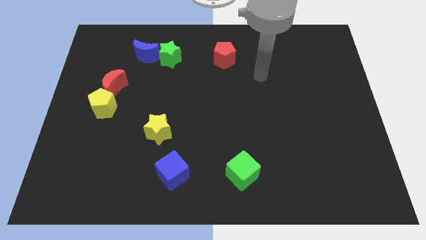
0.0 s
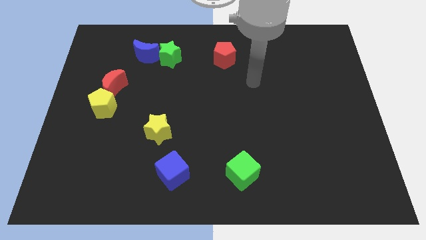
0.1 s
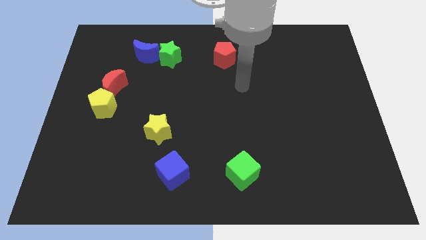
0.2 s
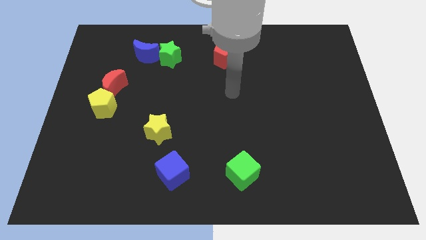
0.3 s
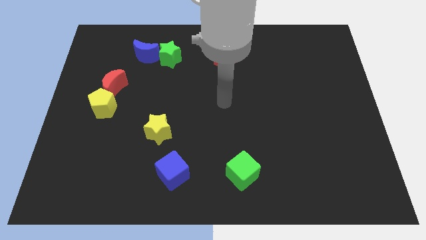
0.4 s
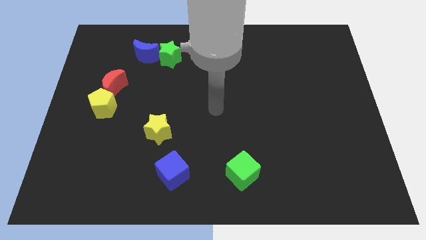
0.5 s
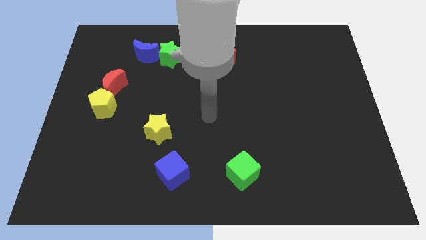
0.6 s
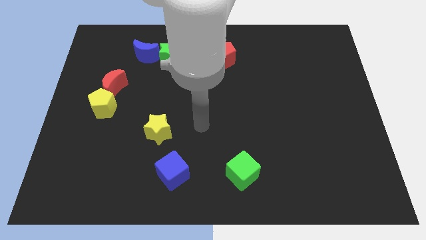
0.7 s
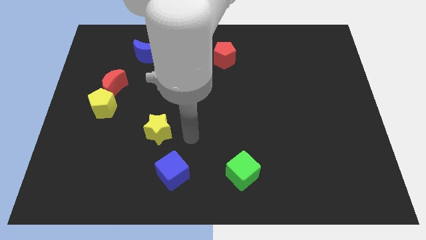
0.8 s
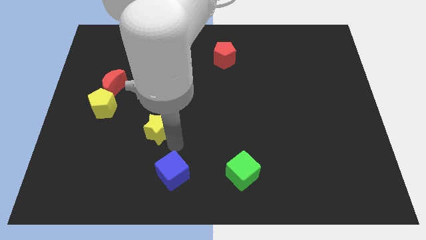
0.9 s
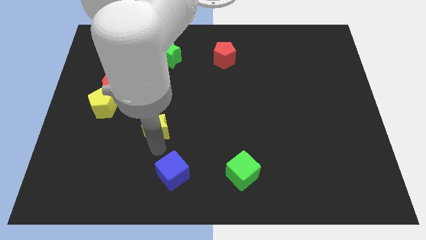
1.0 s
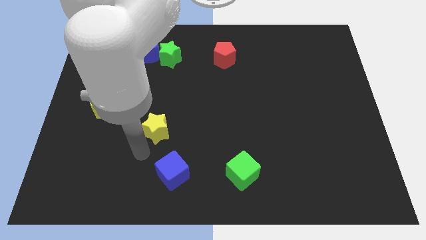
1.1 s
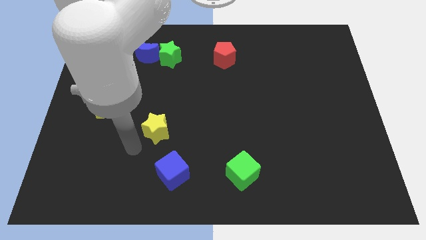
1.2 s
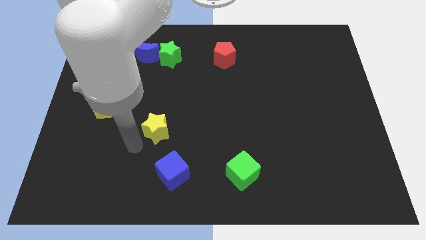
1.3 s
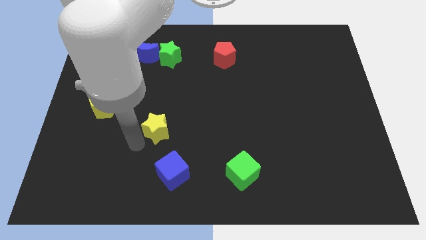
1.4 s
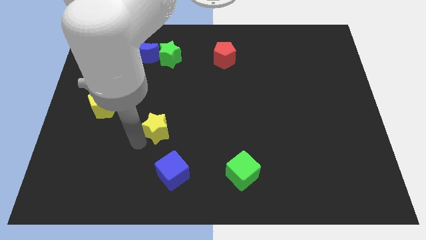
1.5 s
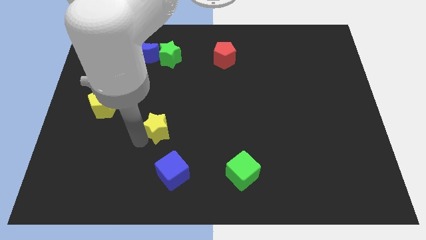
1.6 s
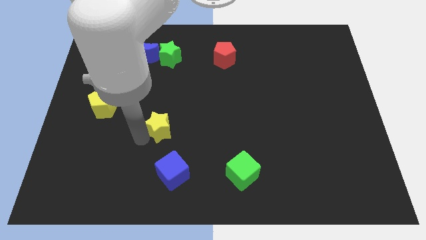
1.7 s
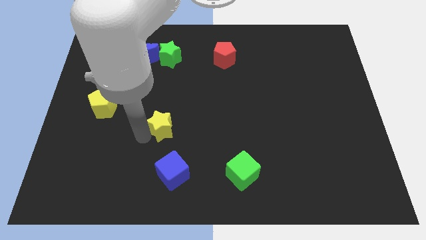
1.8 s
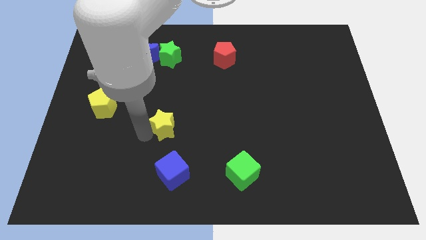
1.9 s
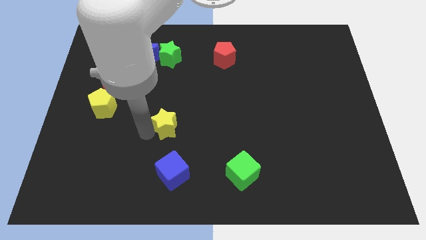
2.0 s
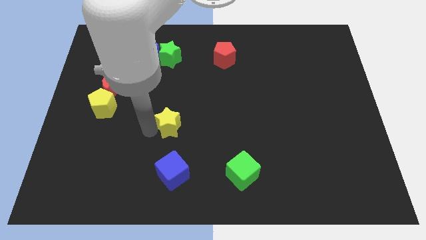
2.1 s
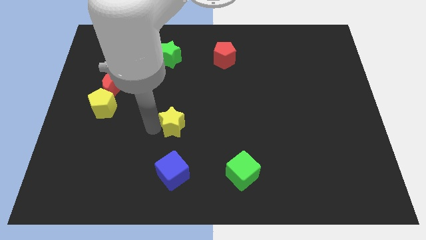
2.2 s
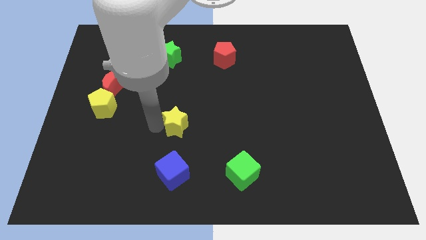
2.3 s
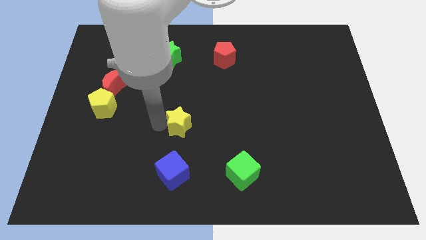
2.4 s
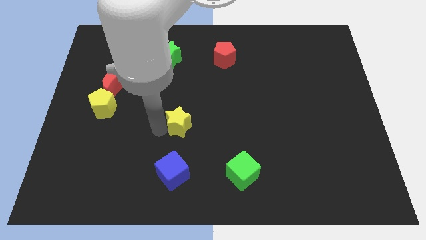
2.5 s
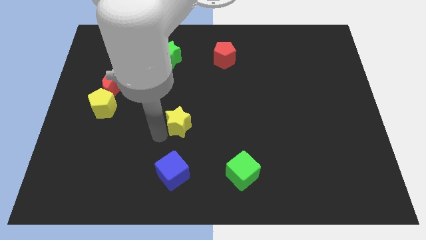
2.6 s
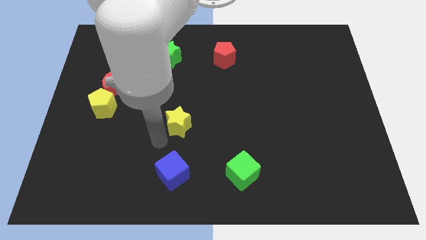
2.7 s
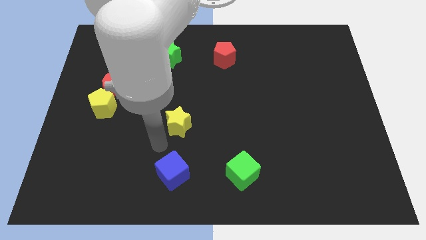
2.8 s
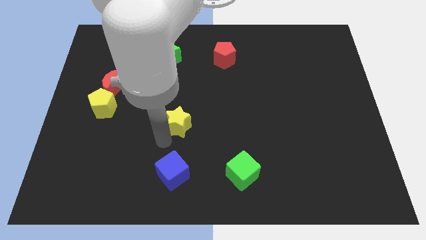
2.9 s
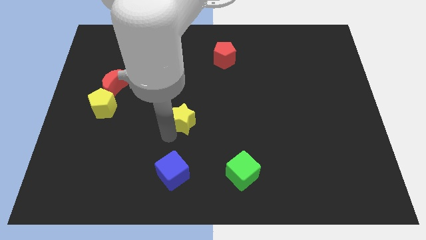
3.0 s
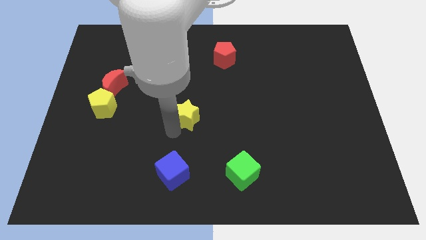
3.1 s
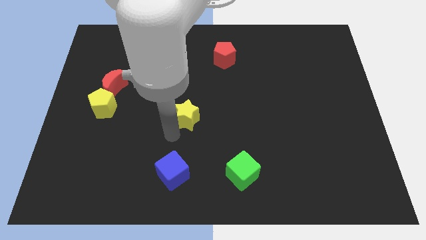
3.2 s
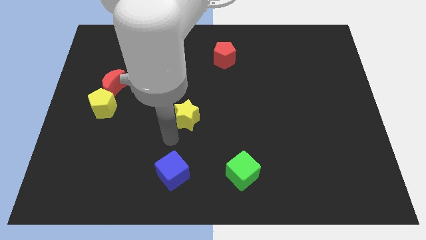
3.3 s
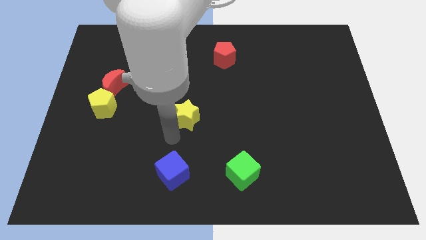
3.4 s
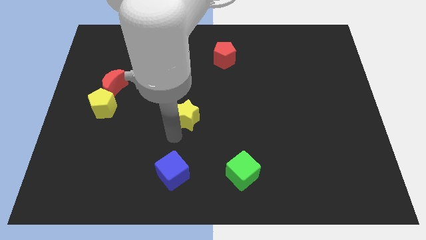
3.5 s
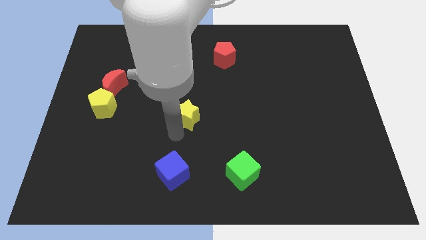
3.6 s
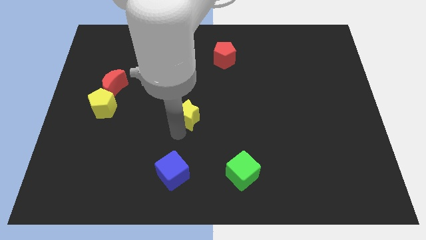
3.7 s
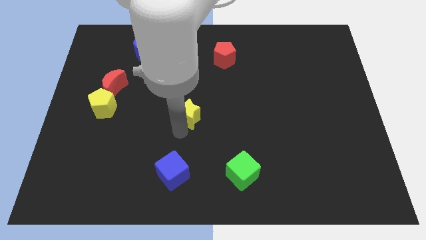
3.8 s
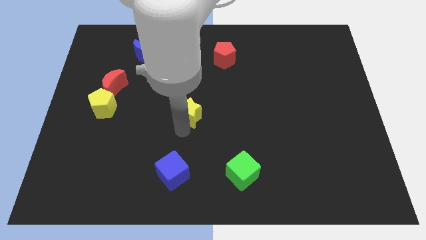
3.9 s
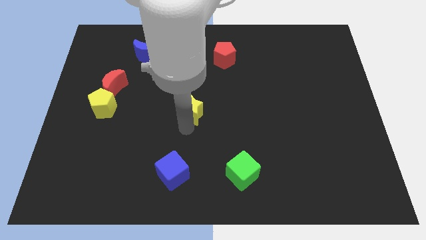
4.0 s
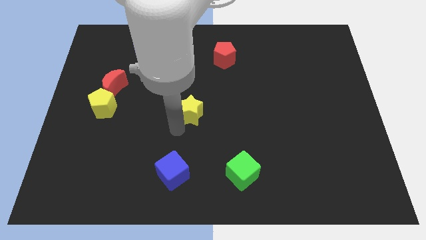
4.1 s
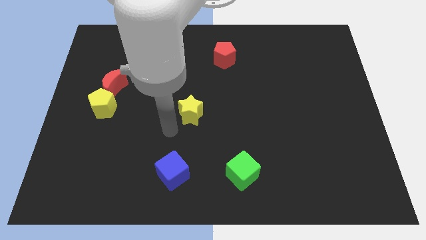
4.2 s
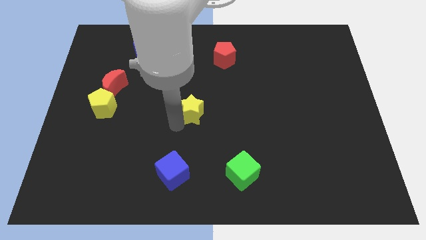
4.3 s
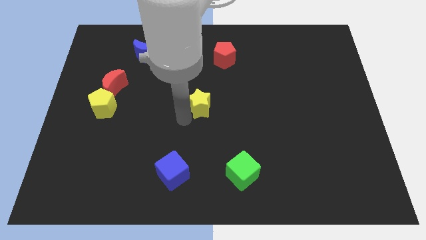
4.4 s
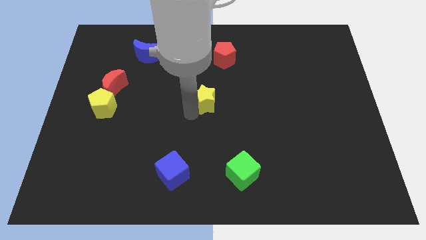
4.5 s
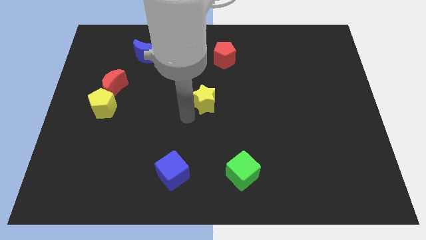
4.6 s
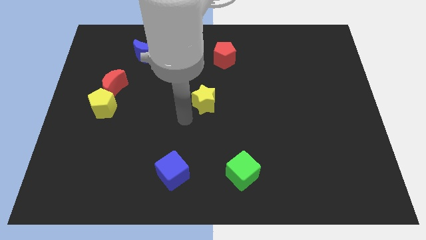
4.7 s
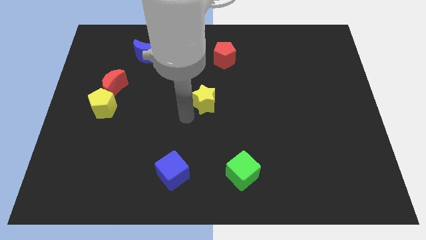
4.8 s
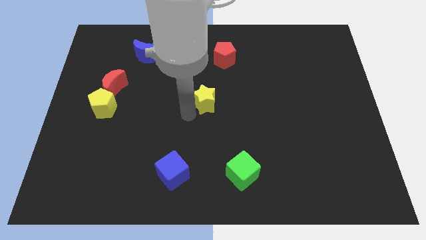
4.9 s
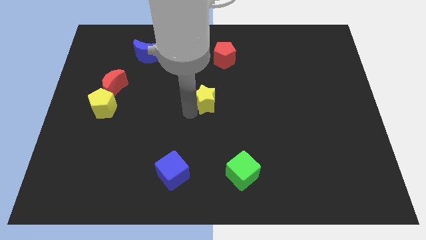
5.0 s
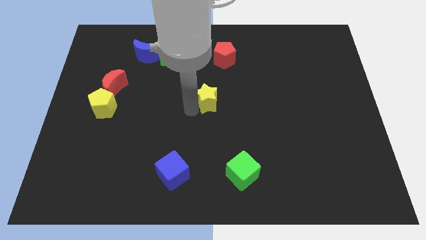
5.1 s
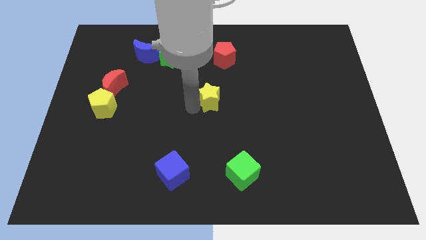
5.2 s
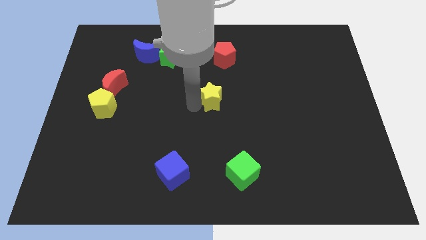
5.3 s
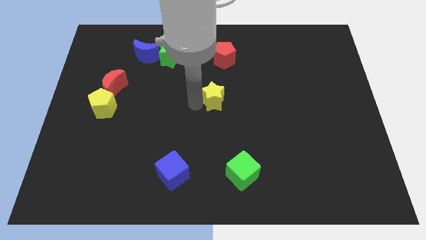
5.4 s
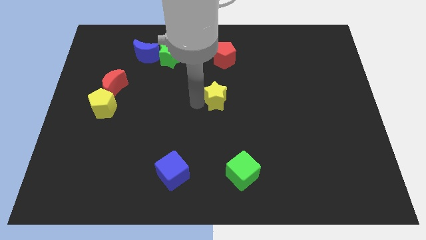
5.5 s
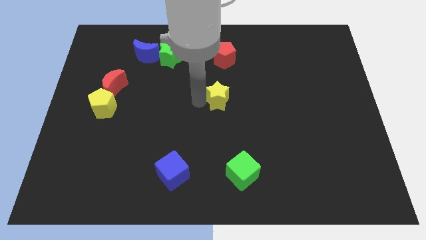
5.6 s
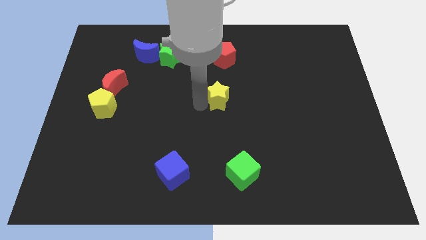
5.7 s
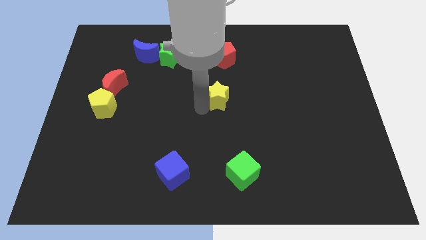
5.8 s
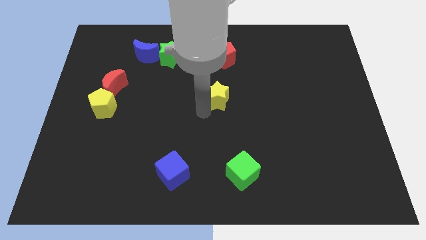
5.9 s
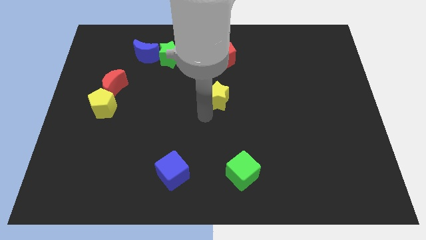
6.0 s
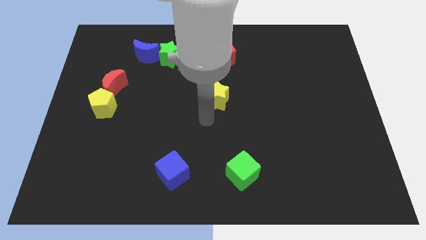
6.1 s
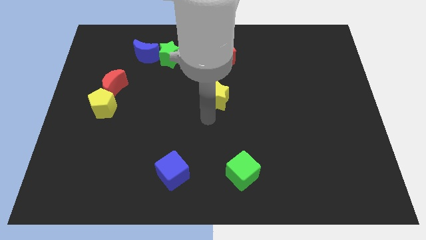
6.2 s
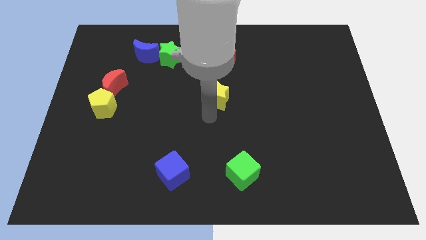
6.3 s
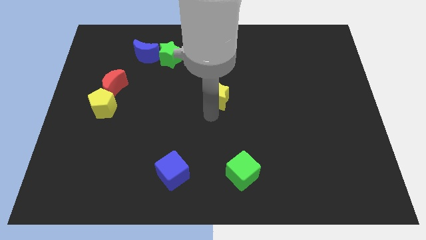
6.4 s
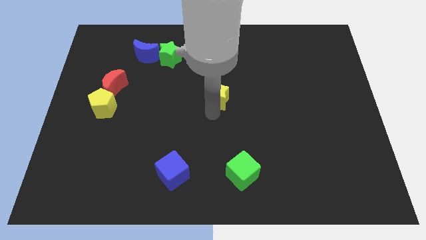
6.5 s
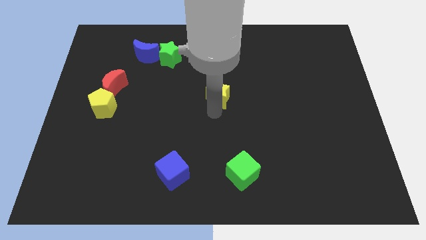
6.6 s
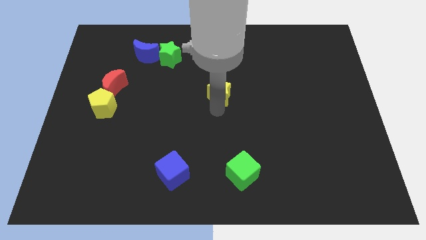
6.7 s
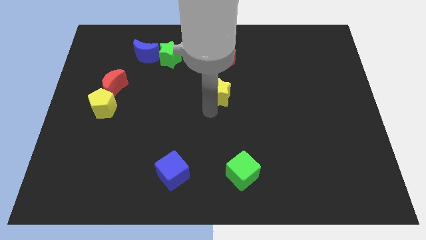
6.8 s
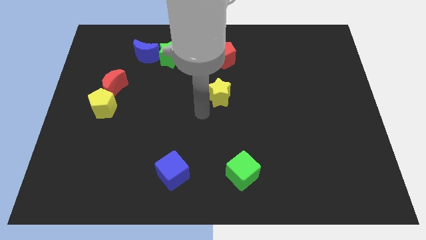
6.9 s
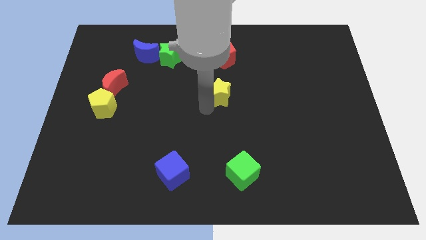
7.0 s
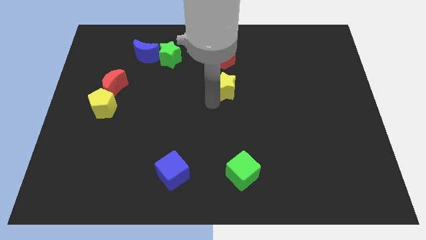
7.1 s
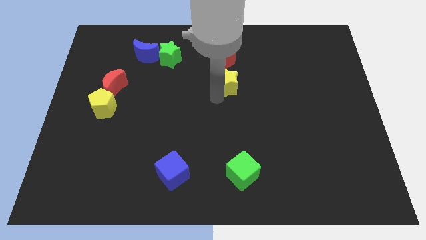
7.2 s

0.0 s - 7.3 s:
slide the yellow star upwards and then right

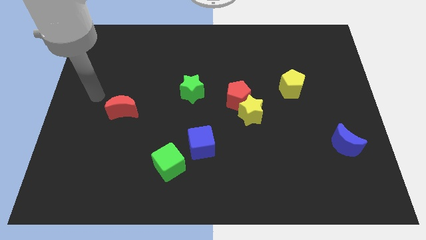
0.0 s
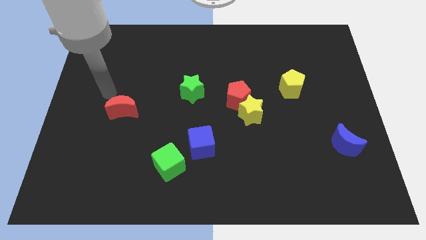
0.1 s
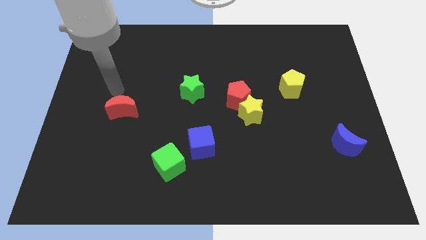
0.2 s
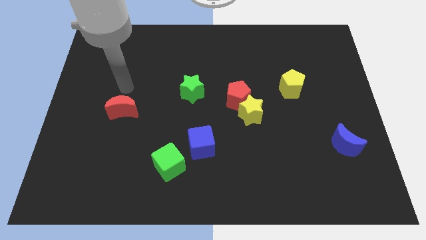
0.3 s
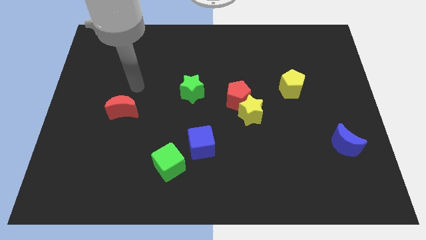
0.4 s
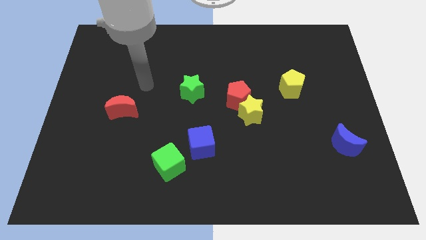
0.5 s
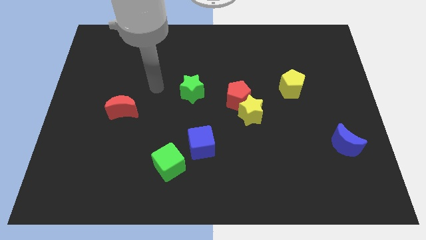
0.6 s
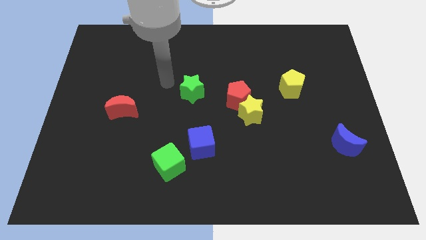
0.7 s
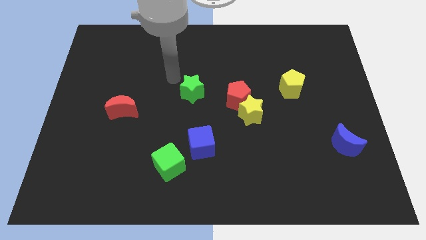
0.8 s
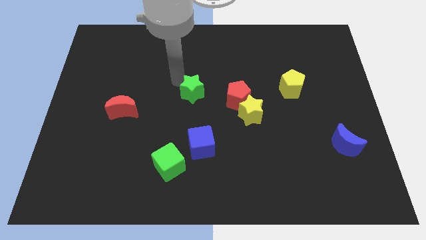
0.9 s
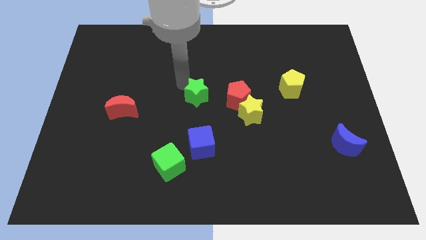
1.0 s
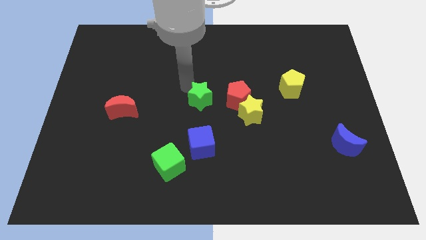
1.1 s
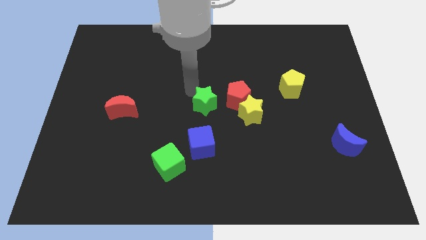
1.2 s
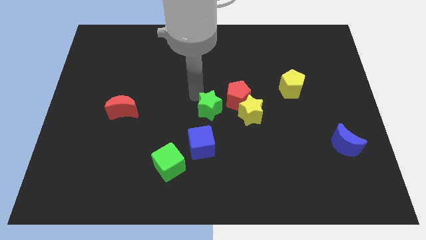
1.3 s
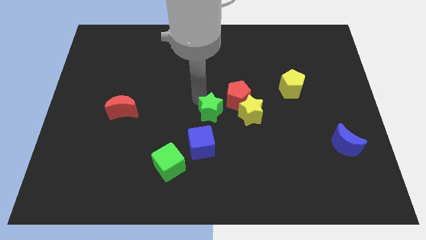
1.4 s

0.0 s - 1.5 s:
move the green star a little down and to the right
